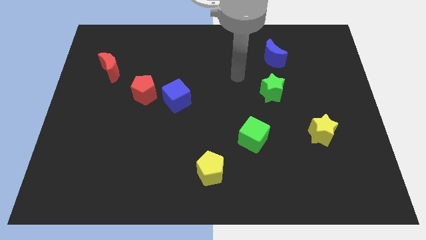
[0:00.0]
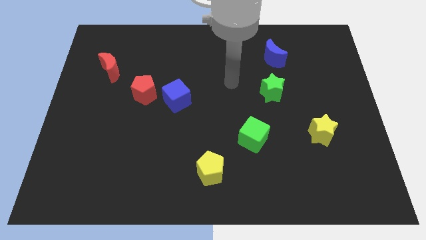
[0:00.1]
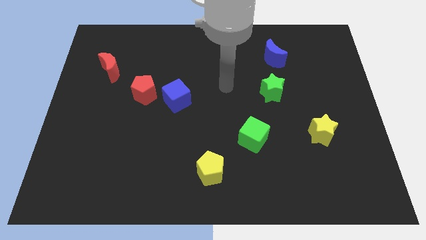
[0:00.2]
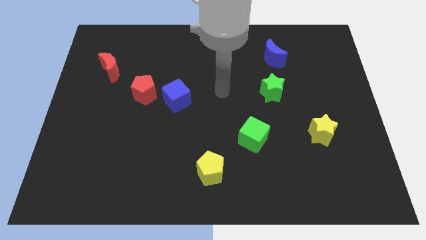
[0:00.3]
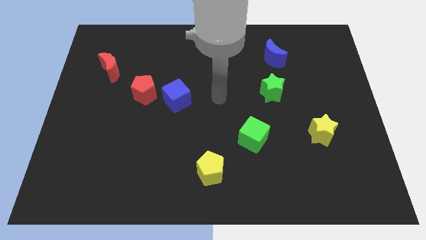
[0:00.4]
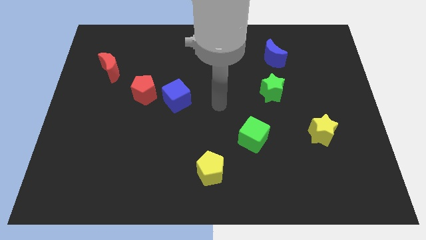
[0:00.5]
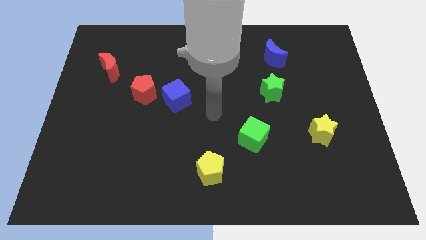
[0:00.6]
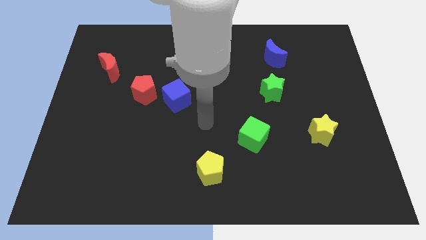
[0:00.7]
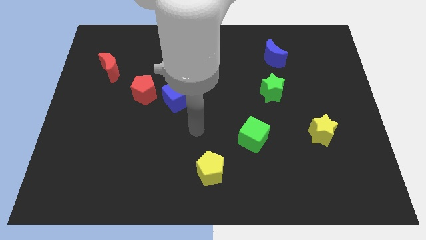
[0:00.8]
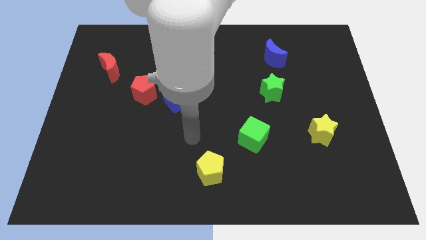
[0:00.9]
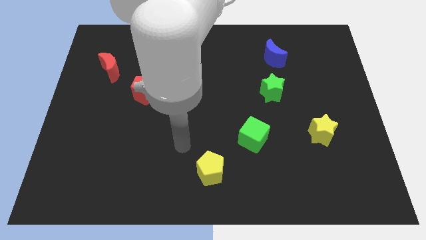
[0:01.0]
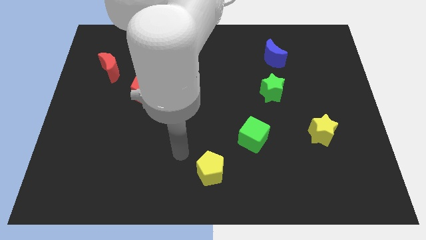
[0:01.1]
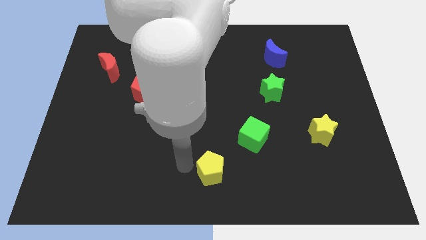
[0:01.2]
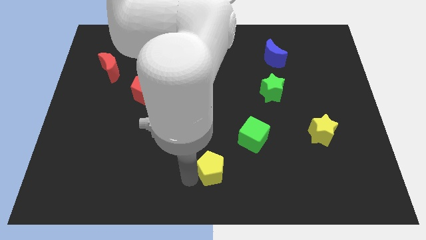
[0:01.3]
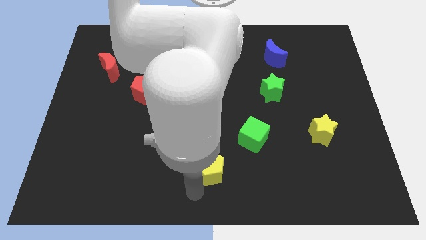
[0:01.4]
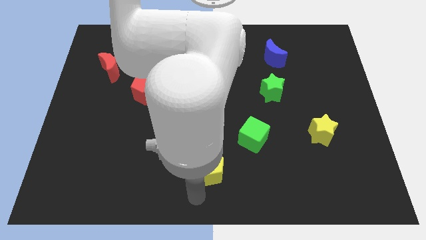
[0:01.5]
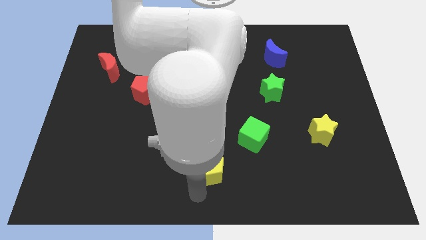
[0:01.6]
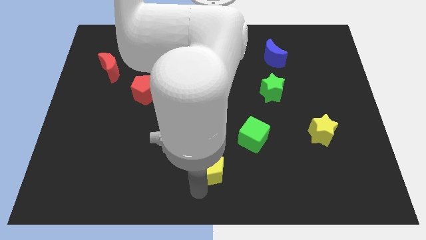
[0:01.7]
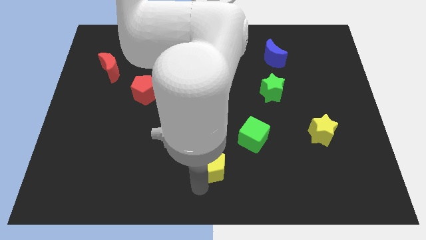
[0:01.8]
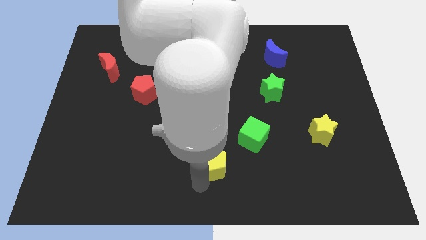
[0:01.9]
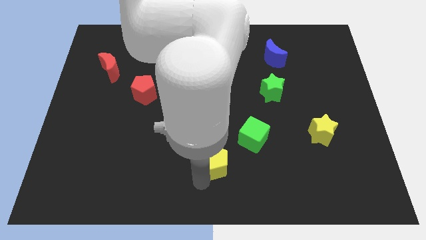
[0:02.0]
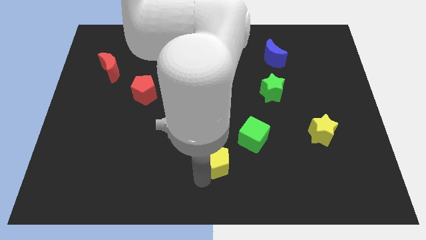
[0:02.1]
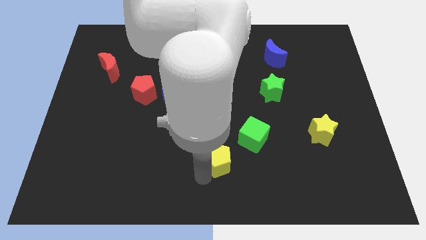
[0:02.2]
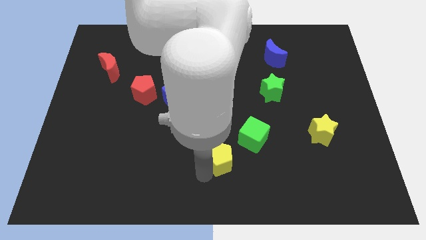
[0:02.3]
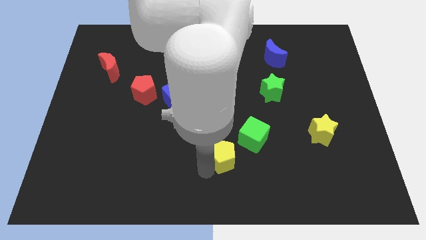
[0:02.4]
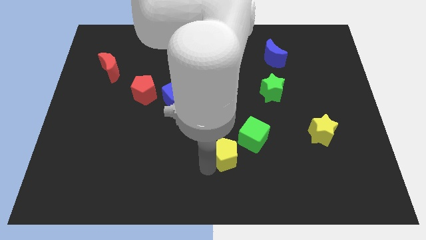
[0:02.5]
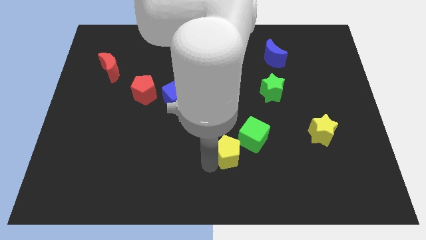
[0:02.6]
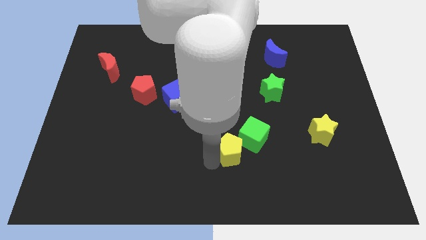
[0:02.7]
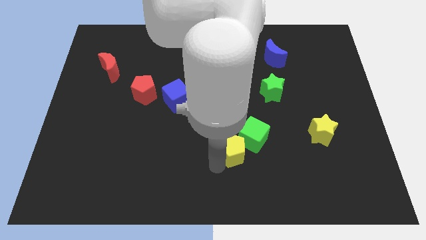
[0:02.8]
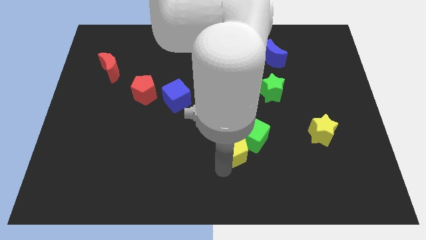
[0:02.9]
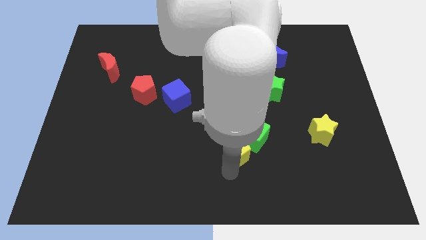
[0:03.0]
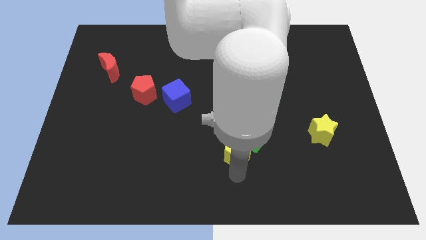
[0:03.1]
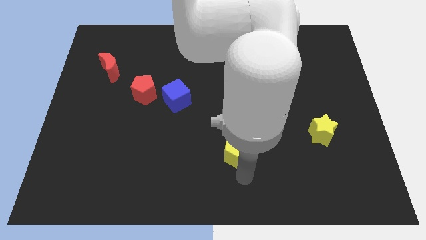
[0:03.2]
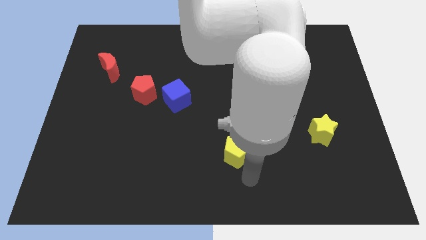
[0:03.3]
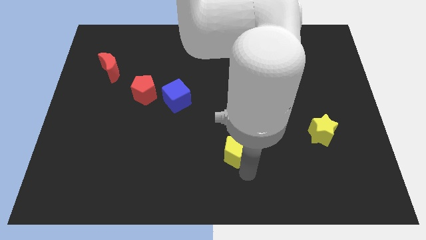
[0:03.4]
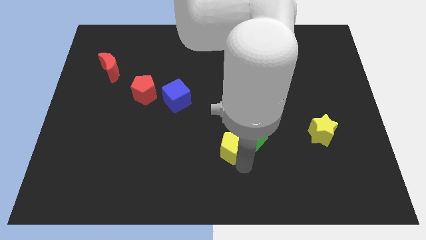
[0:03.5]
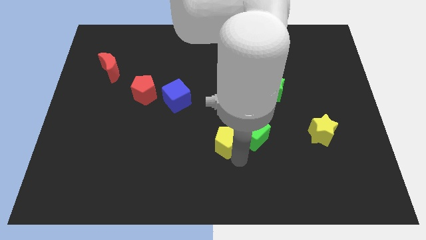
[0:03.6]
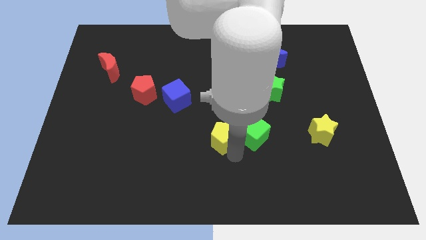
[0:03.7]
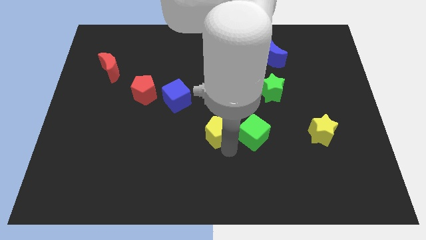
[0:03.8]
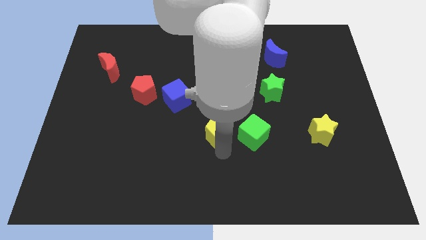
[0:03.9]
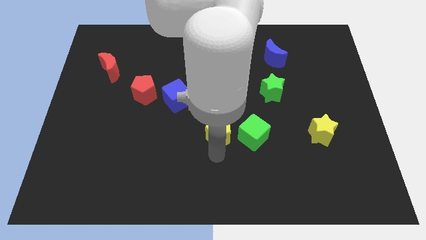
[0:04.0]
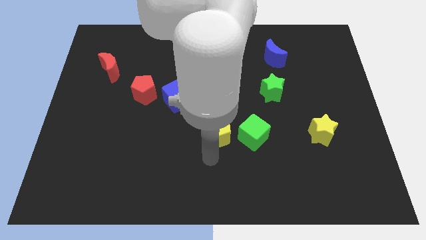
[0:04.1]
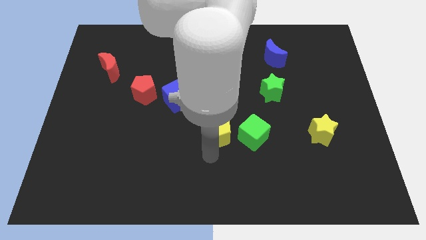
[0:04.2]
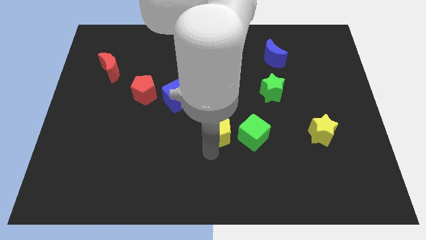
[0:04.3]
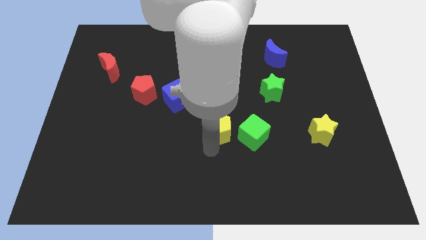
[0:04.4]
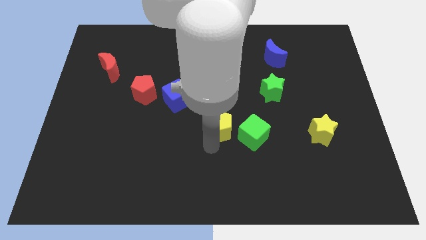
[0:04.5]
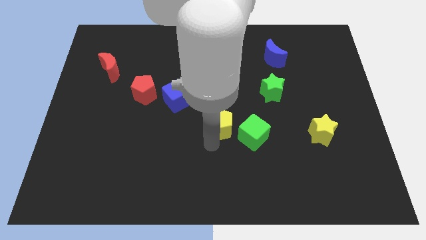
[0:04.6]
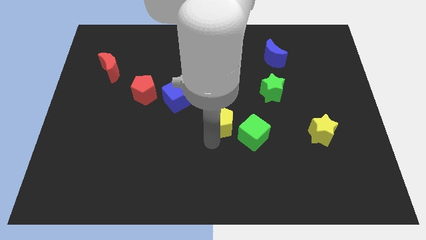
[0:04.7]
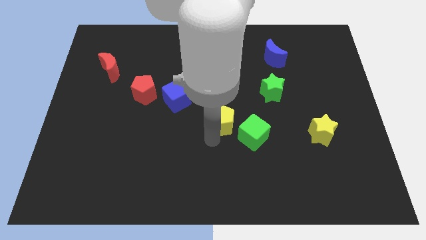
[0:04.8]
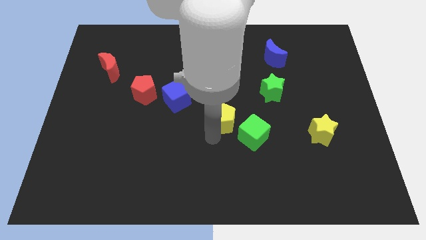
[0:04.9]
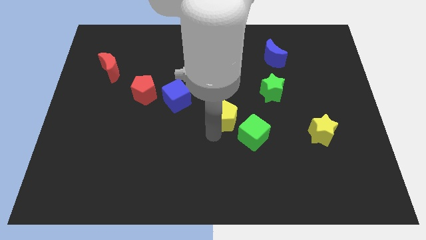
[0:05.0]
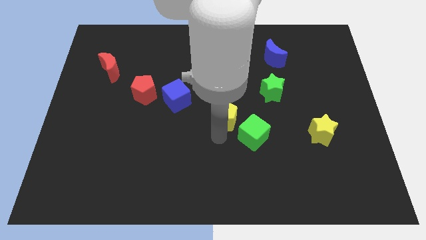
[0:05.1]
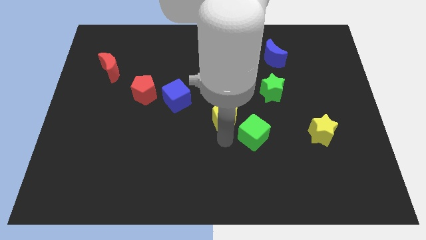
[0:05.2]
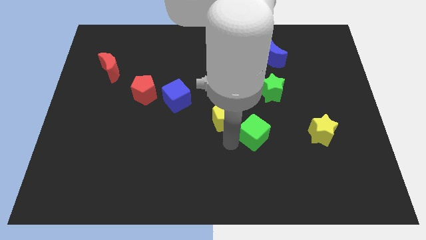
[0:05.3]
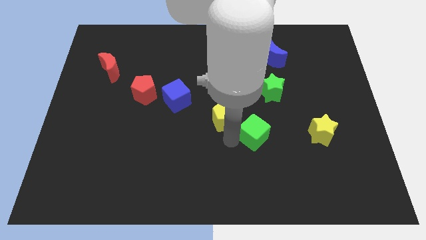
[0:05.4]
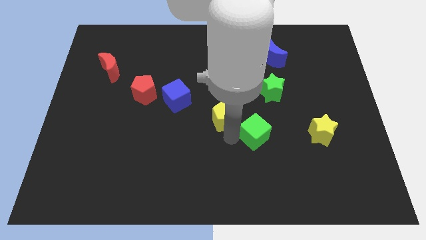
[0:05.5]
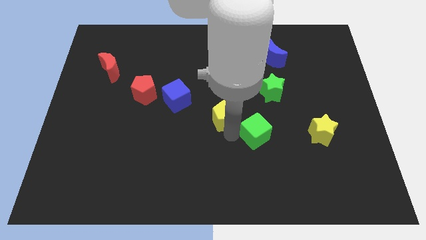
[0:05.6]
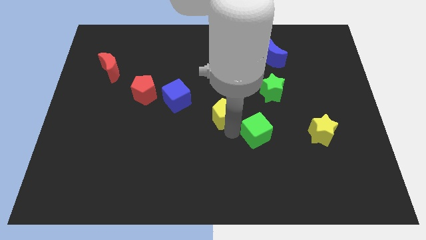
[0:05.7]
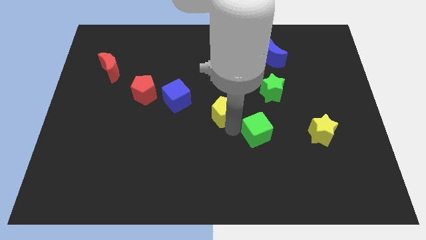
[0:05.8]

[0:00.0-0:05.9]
slide the yellow pentagon just right of the blue cube

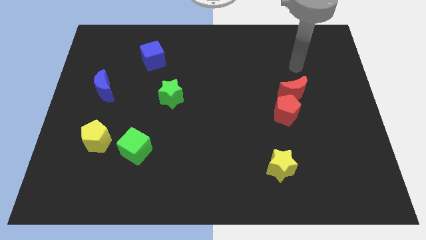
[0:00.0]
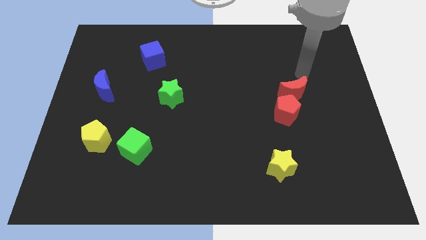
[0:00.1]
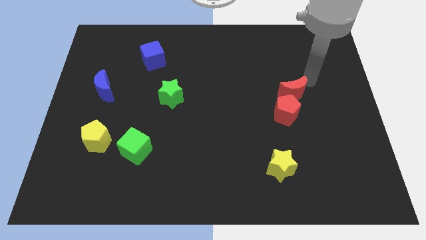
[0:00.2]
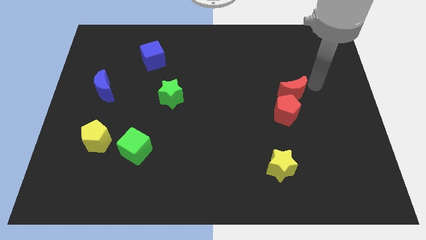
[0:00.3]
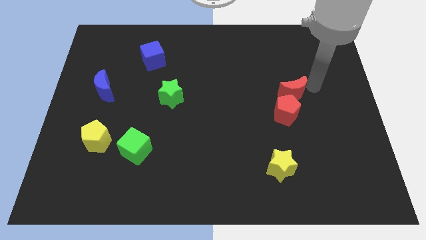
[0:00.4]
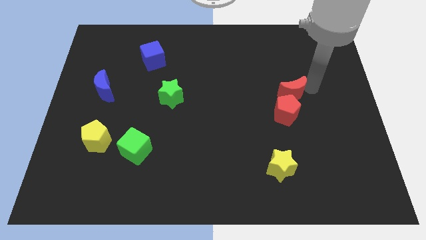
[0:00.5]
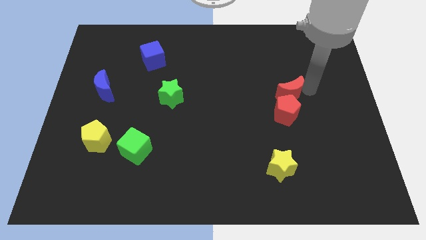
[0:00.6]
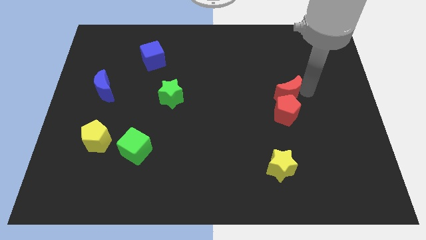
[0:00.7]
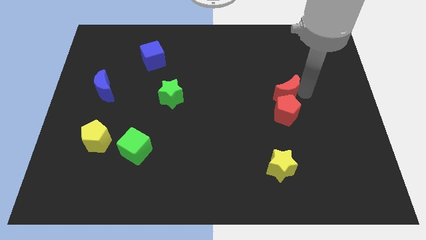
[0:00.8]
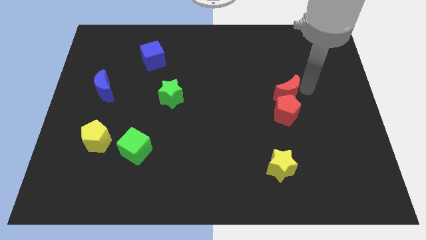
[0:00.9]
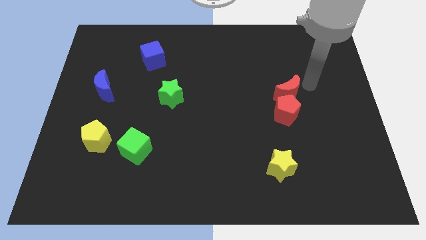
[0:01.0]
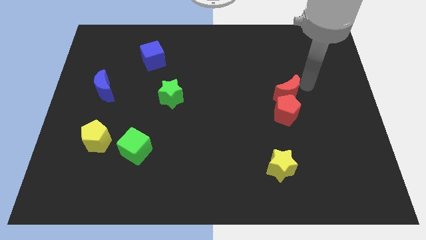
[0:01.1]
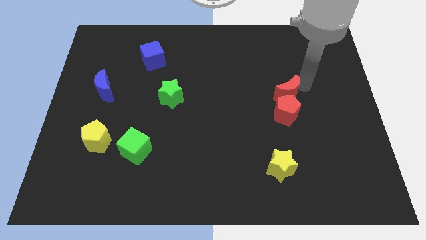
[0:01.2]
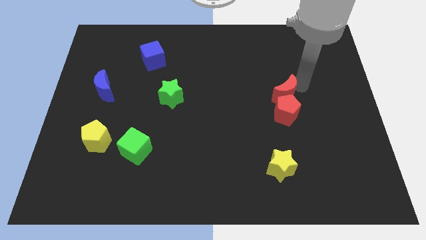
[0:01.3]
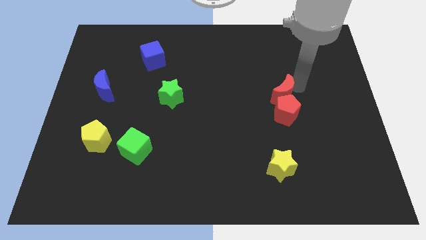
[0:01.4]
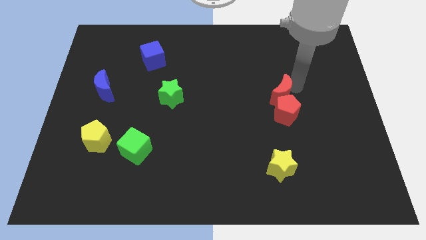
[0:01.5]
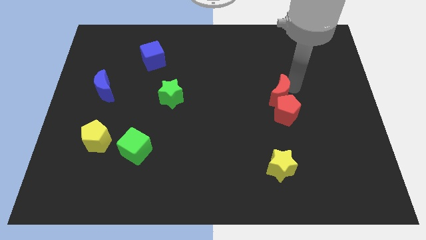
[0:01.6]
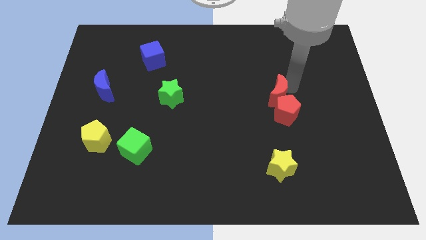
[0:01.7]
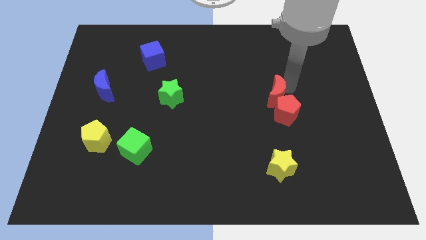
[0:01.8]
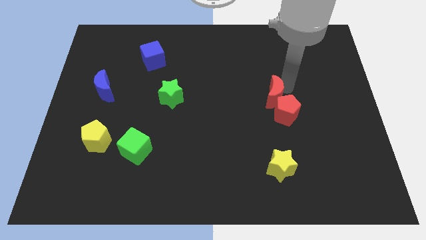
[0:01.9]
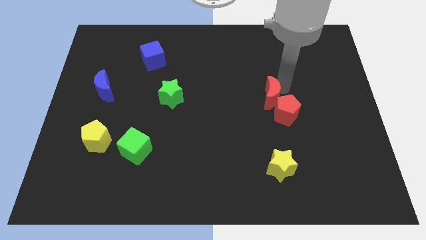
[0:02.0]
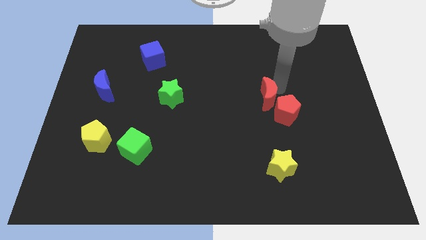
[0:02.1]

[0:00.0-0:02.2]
move the red moon to the left of the red pentagon
